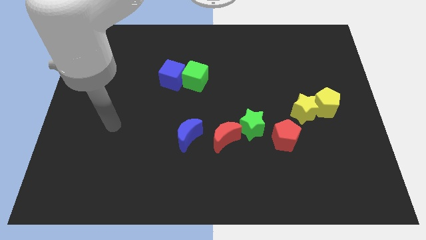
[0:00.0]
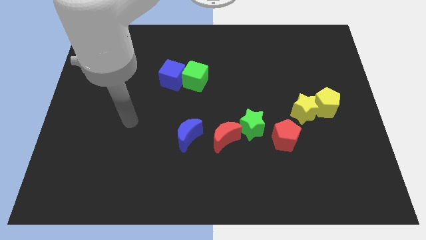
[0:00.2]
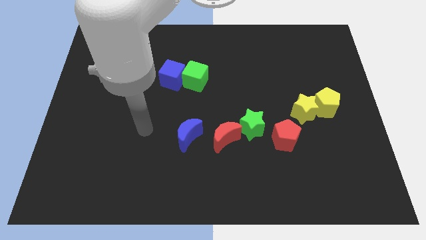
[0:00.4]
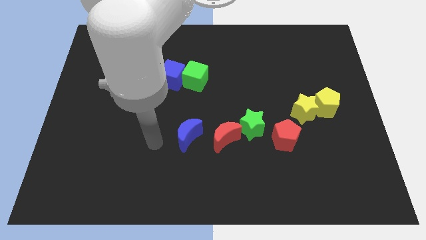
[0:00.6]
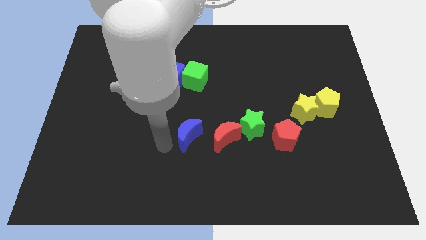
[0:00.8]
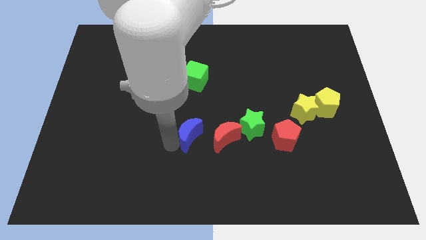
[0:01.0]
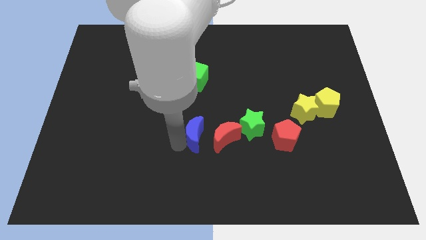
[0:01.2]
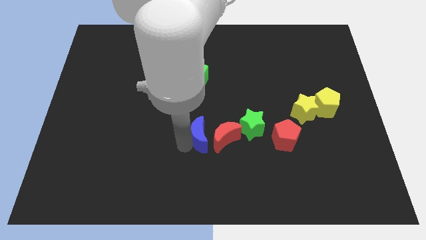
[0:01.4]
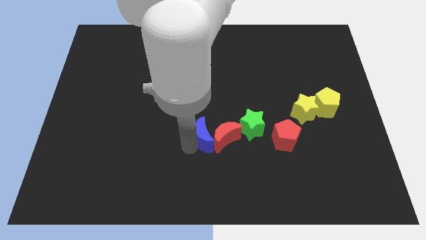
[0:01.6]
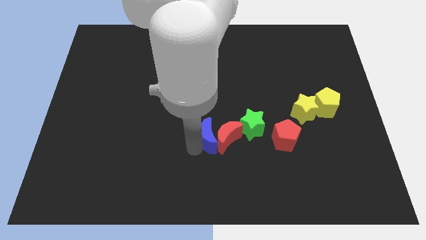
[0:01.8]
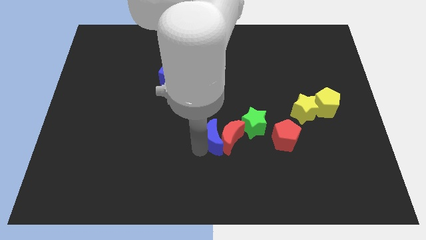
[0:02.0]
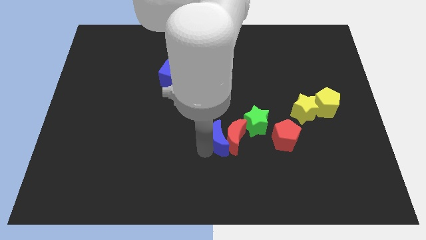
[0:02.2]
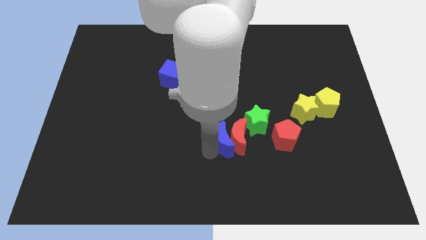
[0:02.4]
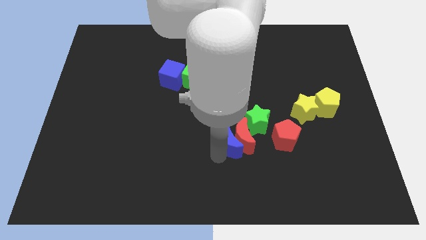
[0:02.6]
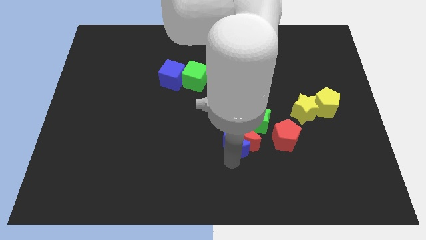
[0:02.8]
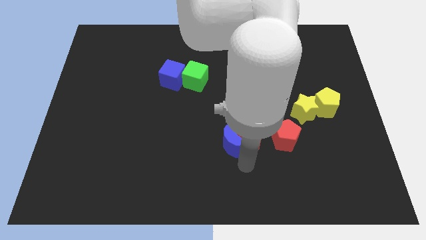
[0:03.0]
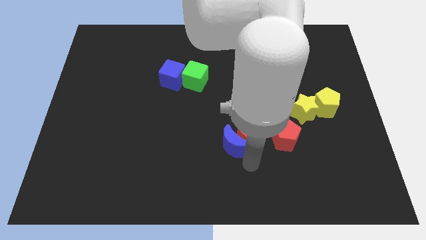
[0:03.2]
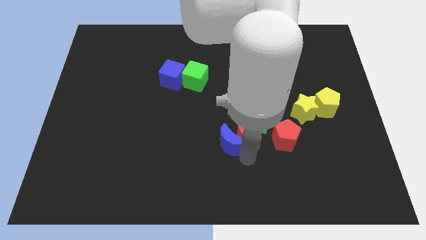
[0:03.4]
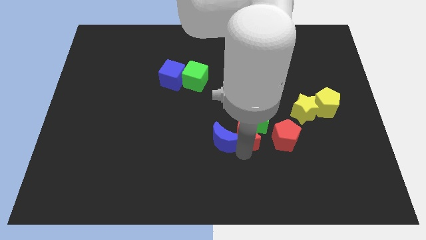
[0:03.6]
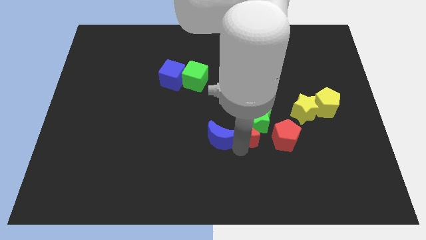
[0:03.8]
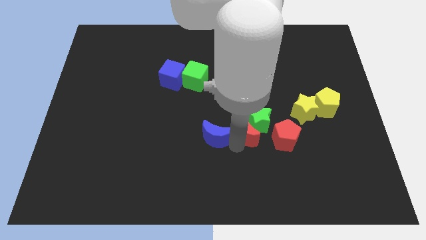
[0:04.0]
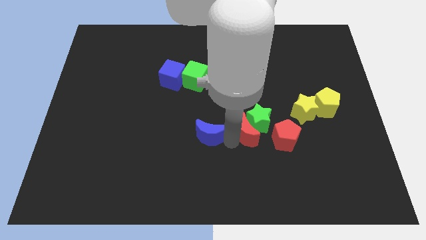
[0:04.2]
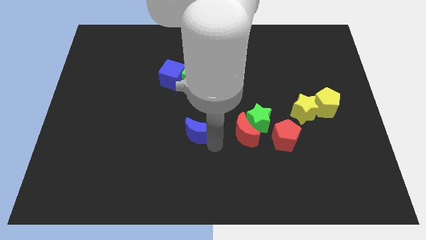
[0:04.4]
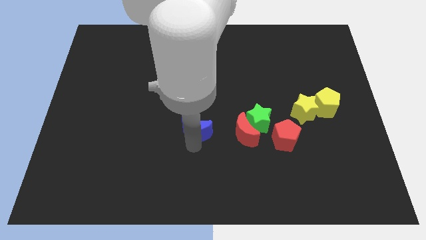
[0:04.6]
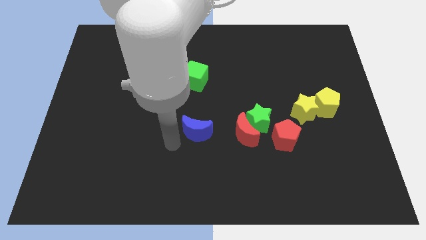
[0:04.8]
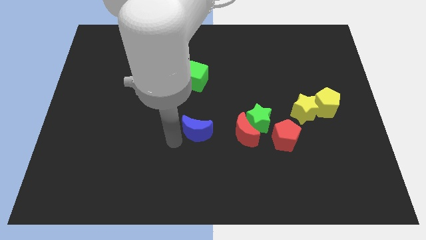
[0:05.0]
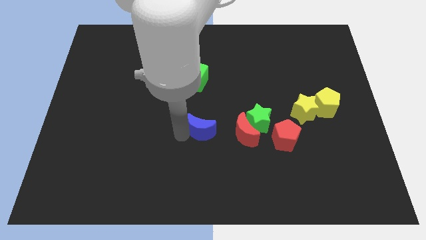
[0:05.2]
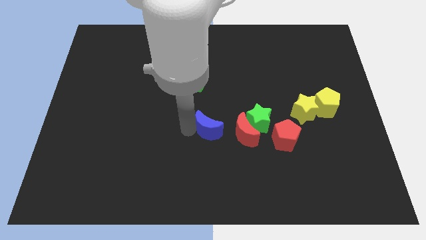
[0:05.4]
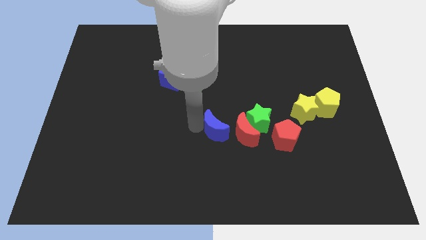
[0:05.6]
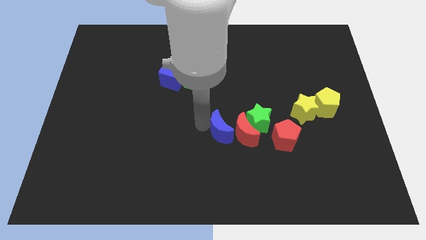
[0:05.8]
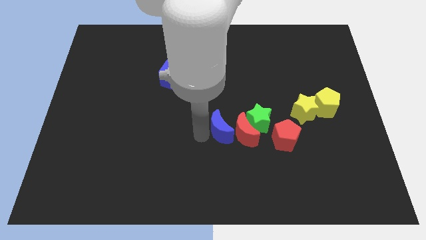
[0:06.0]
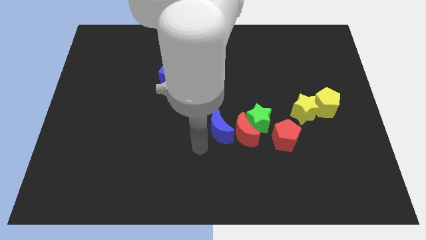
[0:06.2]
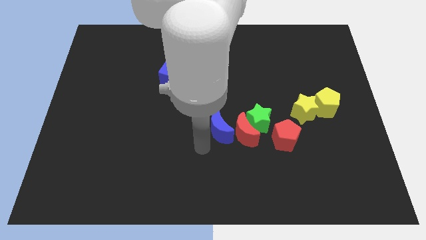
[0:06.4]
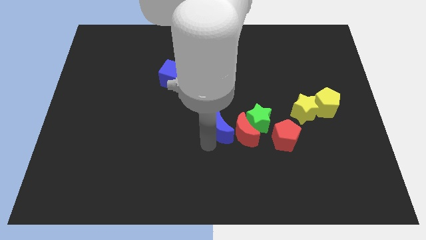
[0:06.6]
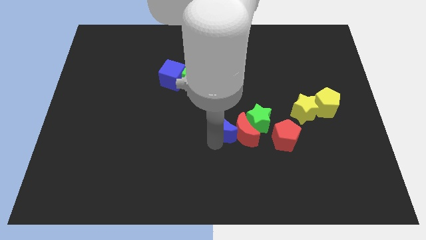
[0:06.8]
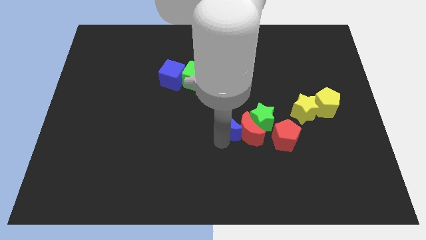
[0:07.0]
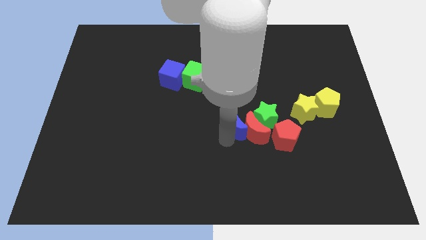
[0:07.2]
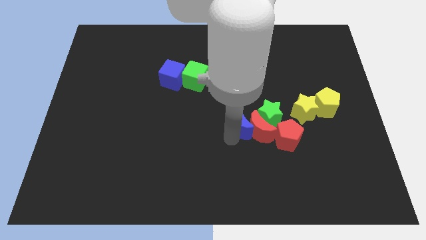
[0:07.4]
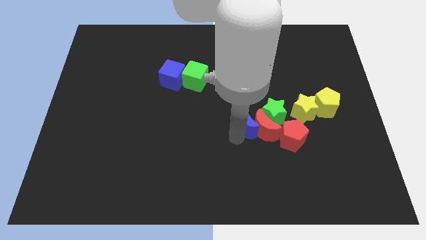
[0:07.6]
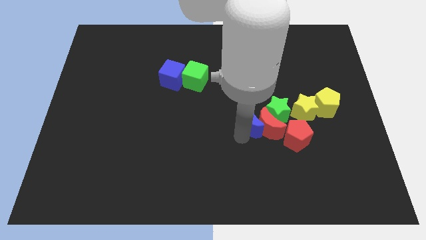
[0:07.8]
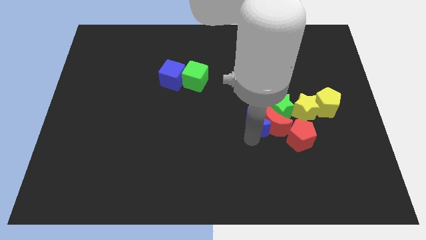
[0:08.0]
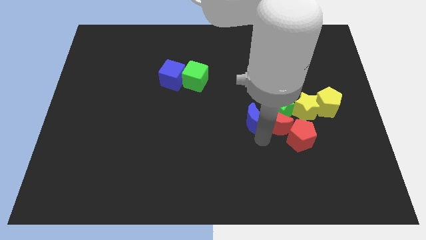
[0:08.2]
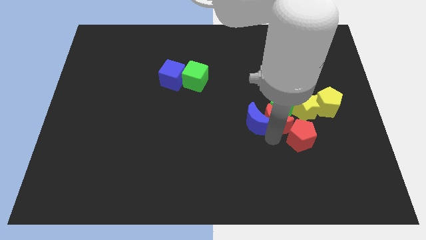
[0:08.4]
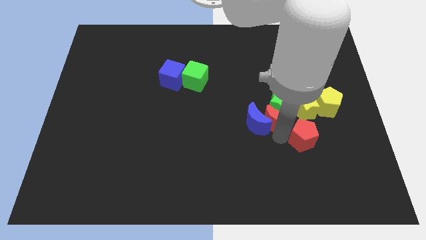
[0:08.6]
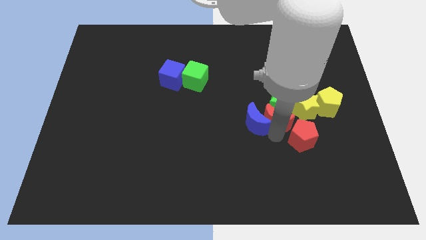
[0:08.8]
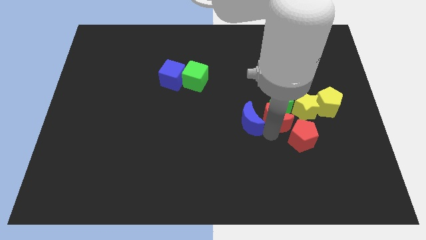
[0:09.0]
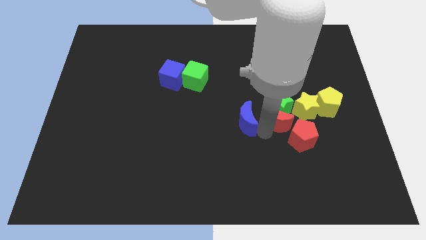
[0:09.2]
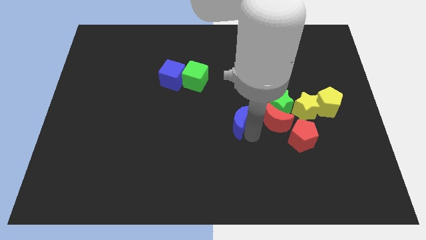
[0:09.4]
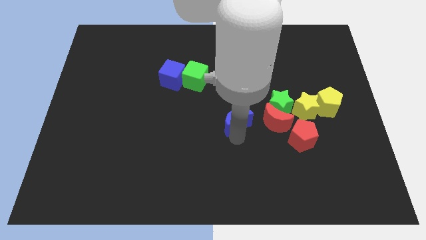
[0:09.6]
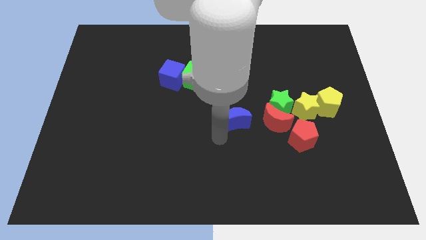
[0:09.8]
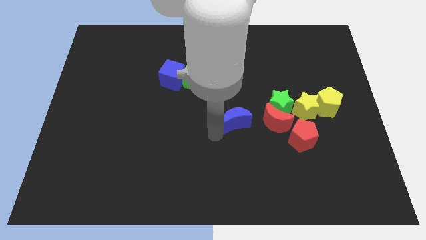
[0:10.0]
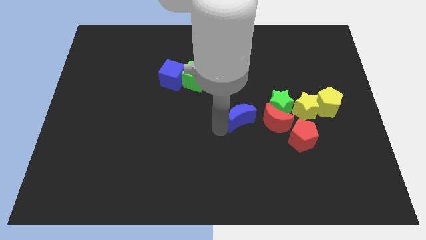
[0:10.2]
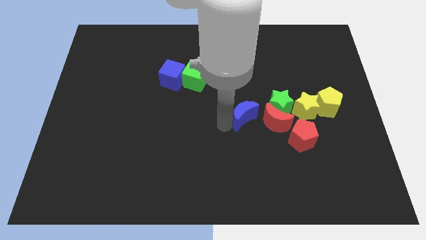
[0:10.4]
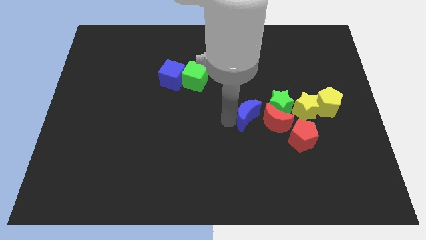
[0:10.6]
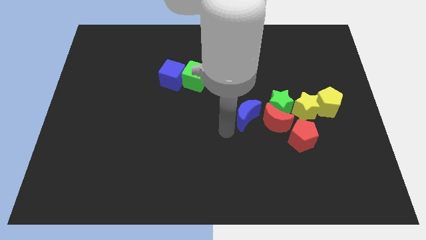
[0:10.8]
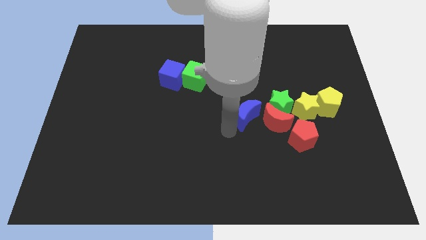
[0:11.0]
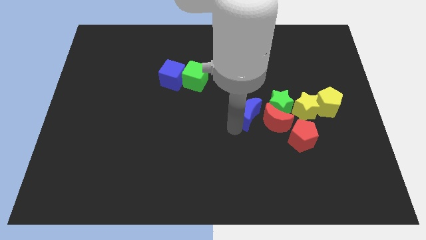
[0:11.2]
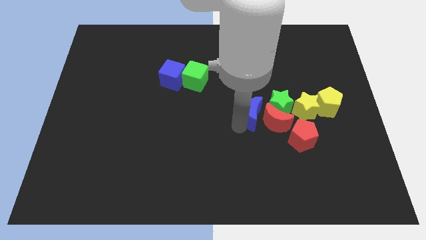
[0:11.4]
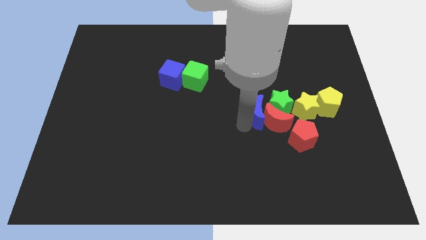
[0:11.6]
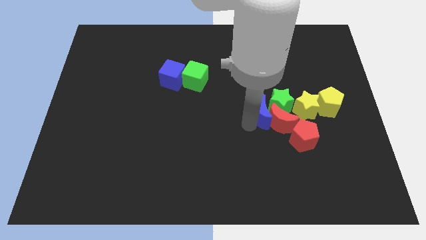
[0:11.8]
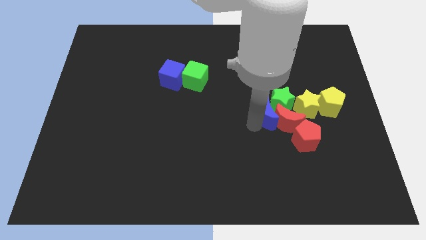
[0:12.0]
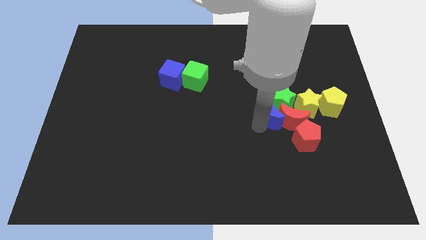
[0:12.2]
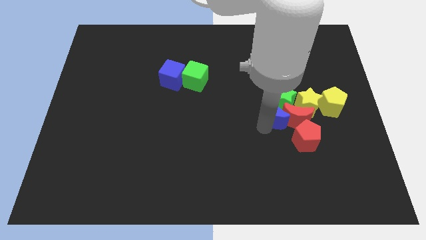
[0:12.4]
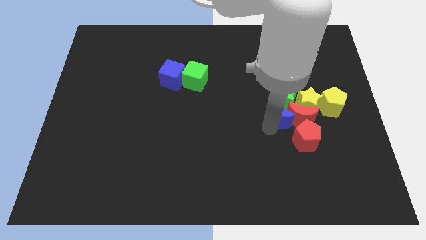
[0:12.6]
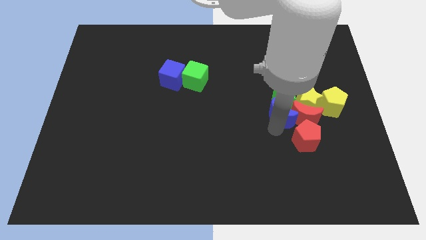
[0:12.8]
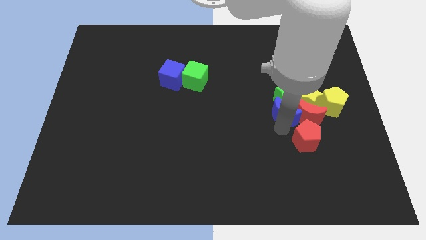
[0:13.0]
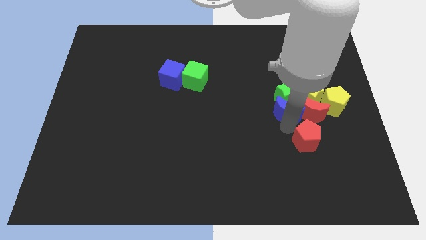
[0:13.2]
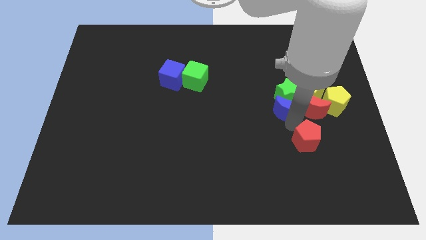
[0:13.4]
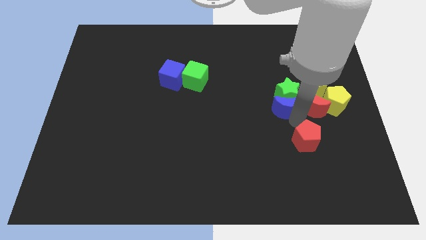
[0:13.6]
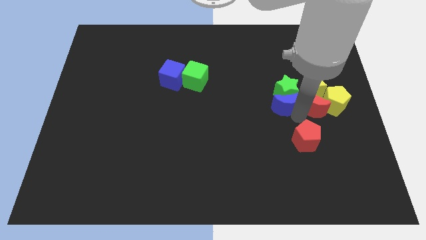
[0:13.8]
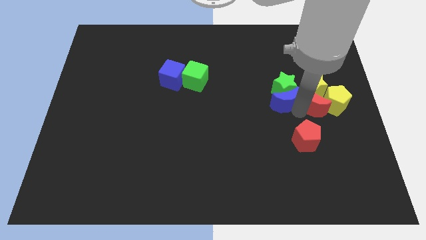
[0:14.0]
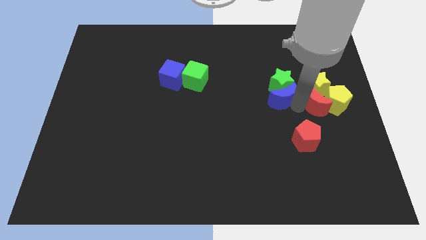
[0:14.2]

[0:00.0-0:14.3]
move the blue moon up and right

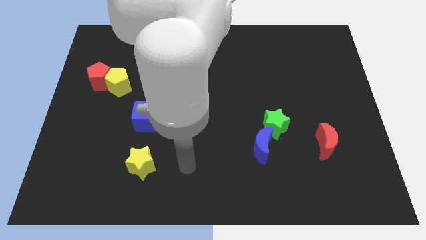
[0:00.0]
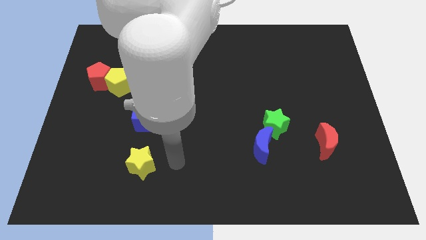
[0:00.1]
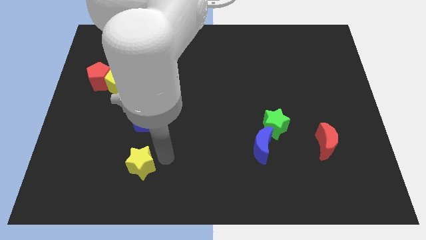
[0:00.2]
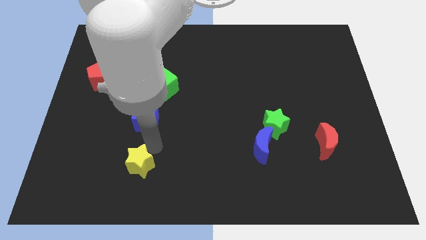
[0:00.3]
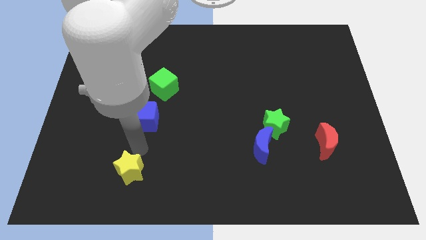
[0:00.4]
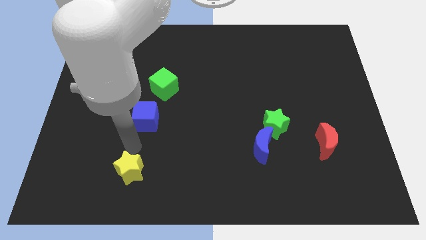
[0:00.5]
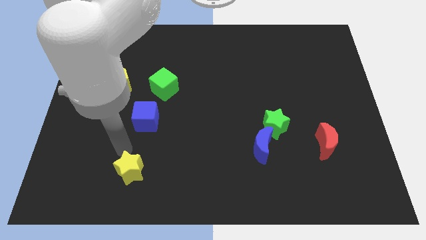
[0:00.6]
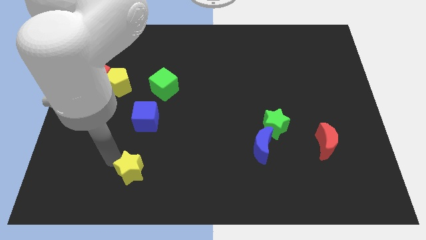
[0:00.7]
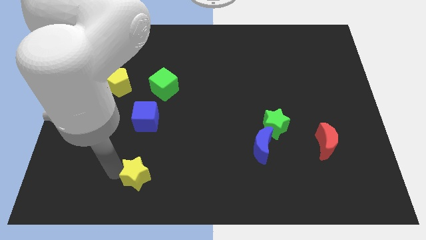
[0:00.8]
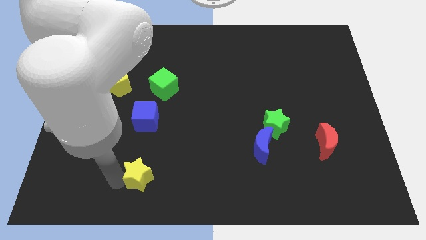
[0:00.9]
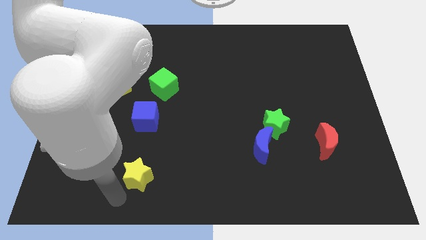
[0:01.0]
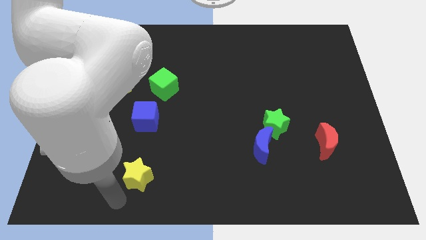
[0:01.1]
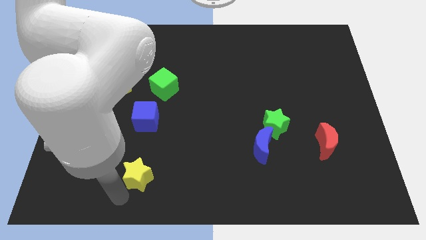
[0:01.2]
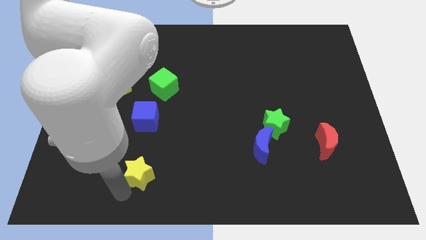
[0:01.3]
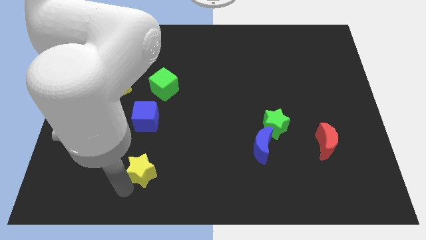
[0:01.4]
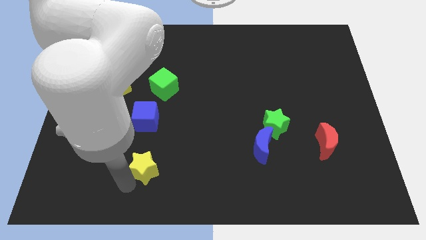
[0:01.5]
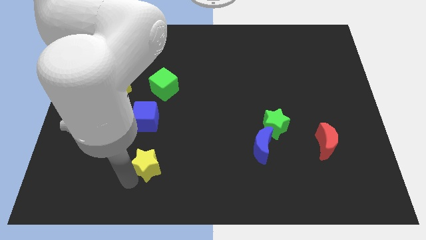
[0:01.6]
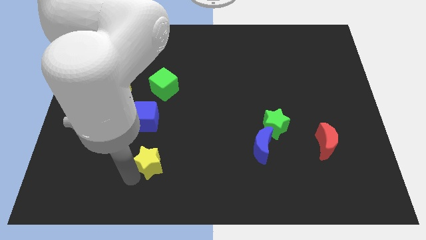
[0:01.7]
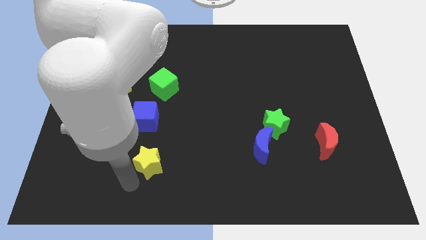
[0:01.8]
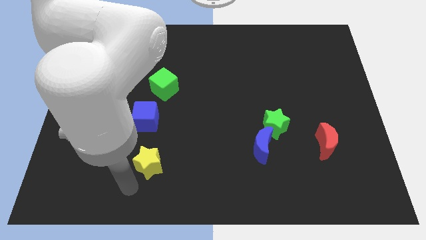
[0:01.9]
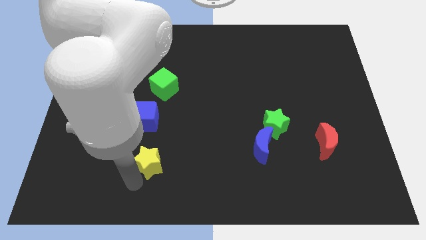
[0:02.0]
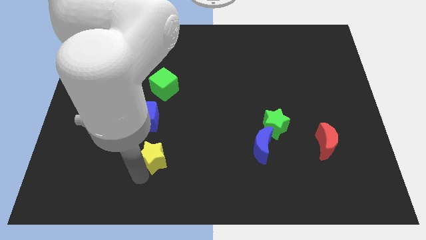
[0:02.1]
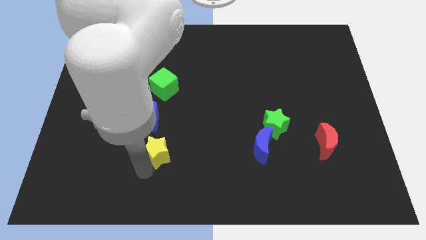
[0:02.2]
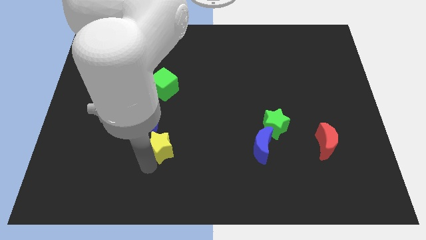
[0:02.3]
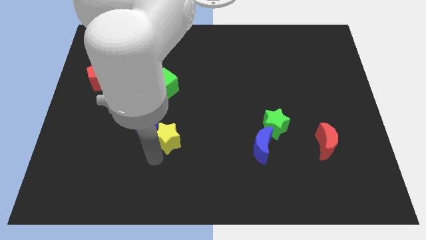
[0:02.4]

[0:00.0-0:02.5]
push the yellow star somewhat up and to the right
